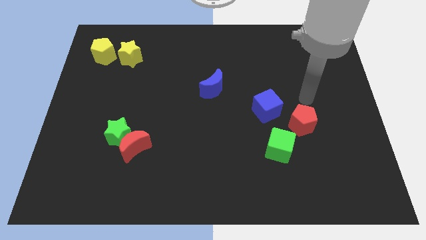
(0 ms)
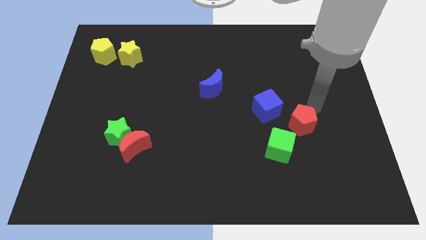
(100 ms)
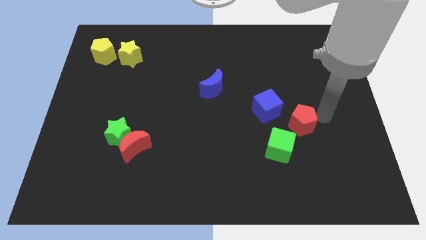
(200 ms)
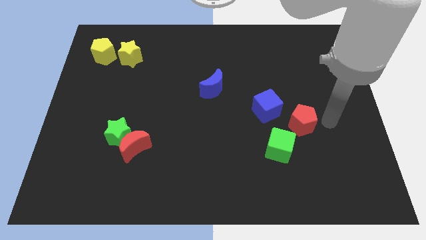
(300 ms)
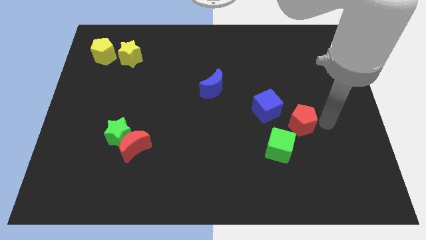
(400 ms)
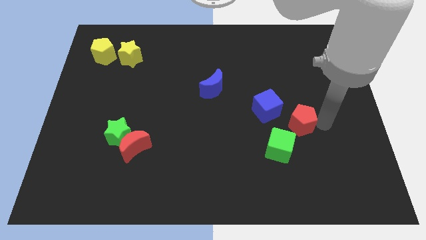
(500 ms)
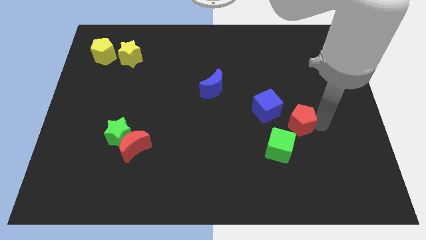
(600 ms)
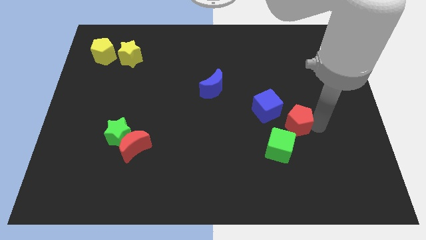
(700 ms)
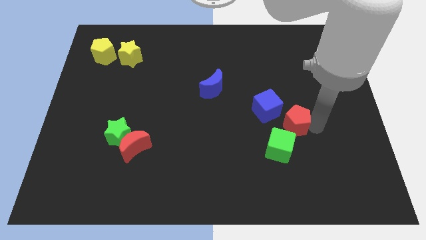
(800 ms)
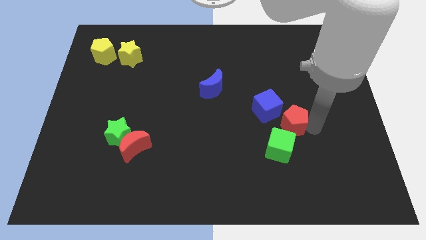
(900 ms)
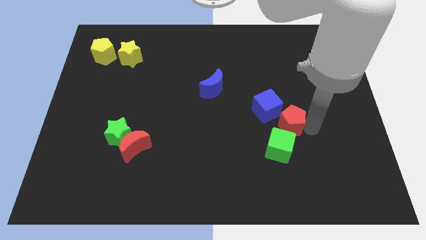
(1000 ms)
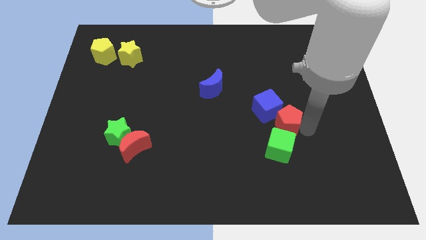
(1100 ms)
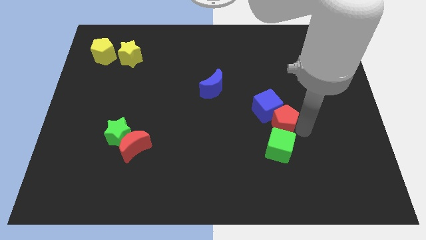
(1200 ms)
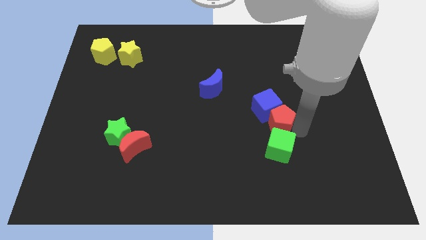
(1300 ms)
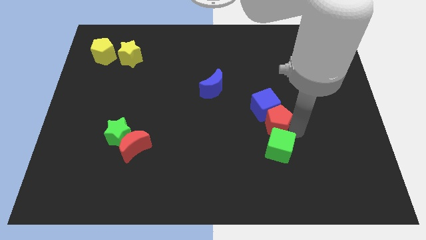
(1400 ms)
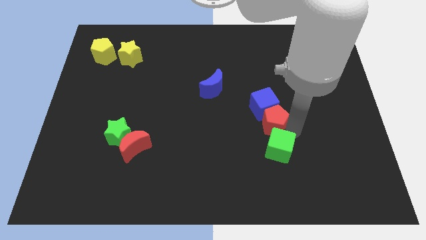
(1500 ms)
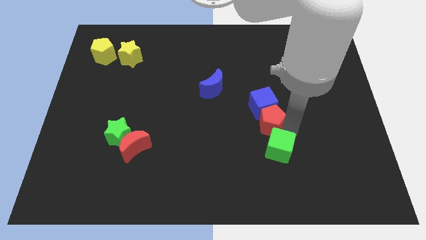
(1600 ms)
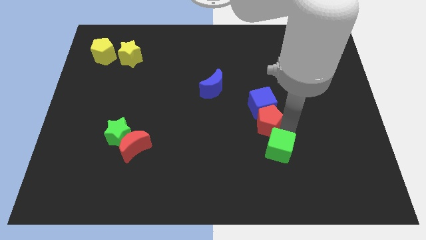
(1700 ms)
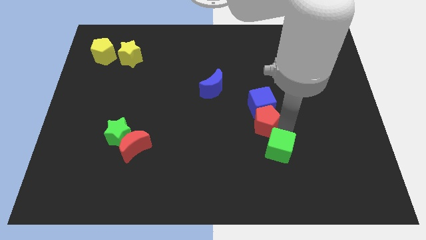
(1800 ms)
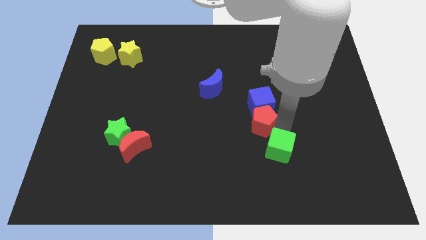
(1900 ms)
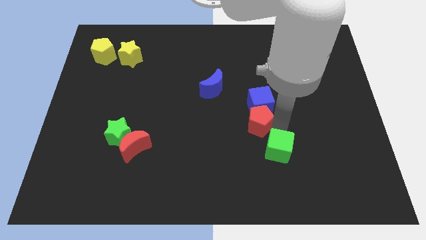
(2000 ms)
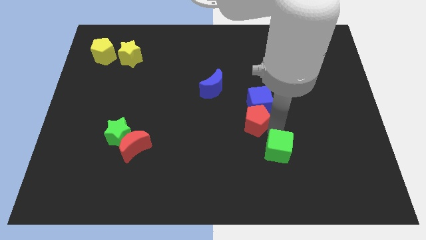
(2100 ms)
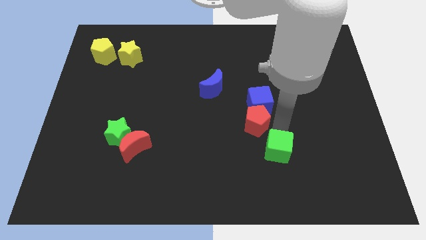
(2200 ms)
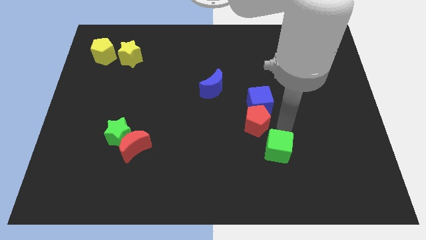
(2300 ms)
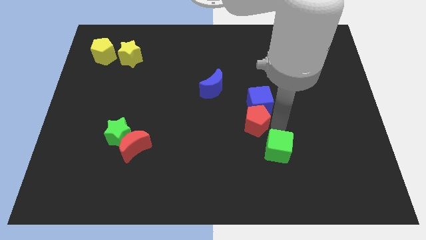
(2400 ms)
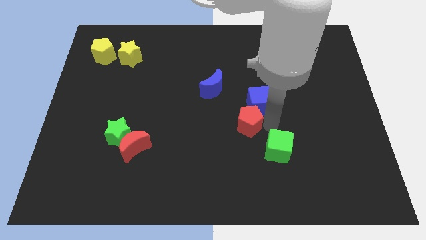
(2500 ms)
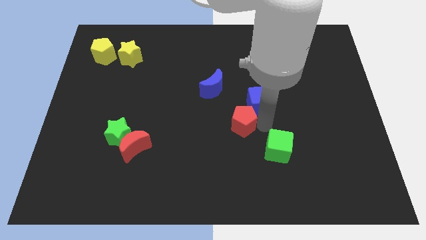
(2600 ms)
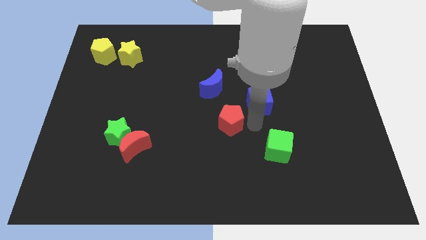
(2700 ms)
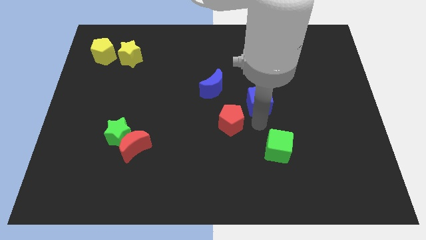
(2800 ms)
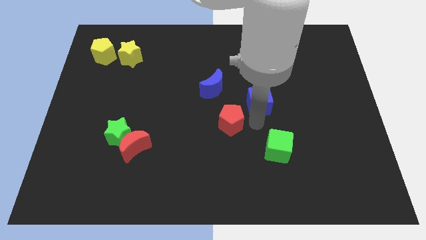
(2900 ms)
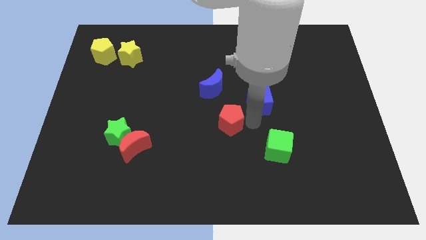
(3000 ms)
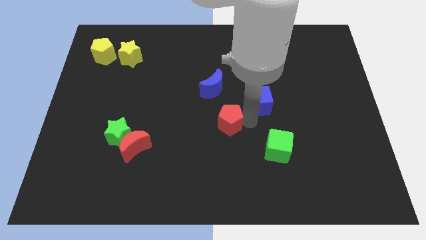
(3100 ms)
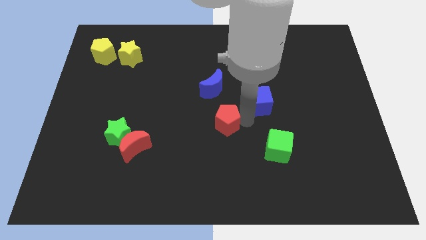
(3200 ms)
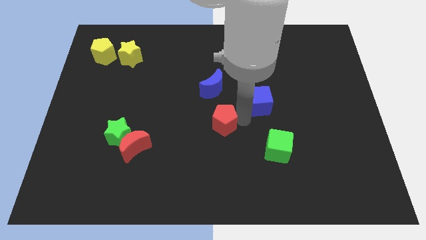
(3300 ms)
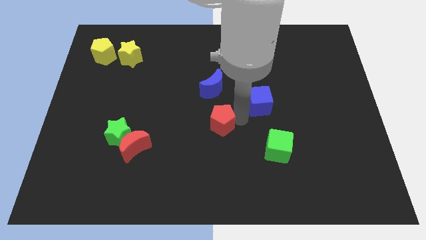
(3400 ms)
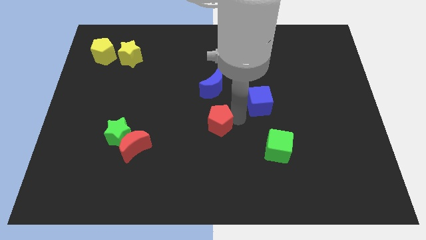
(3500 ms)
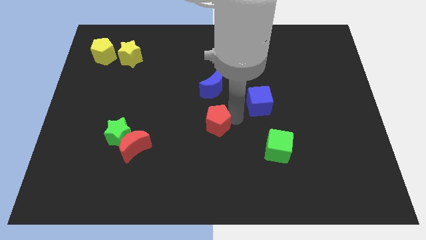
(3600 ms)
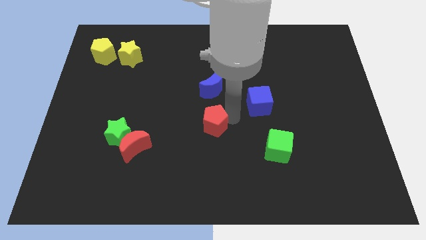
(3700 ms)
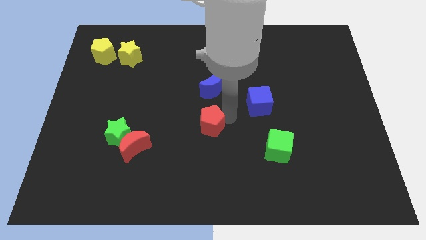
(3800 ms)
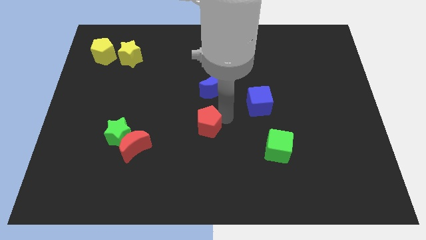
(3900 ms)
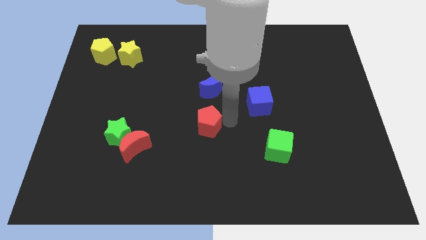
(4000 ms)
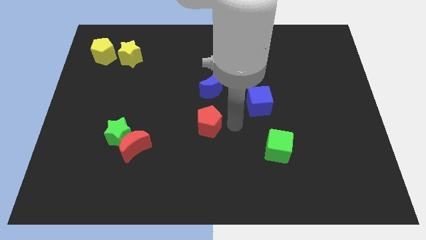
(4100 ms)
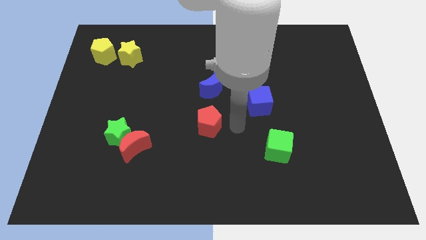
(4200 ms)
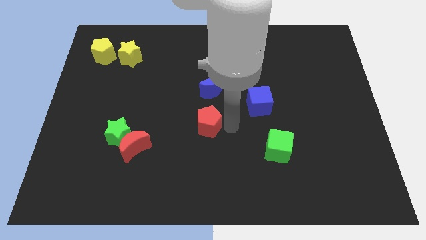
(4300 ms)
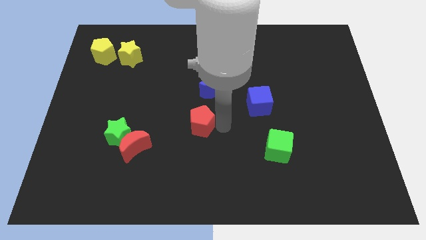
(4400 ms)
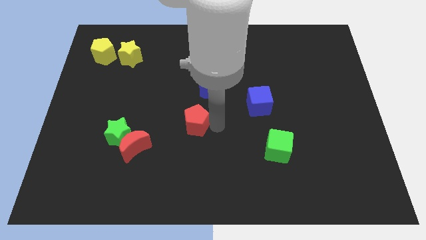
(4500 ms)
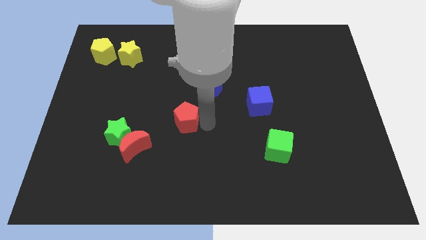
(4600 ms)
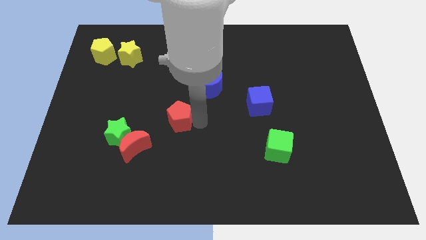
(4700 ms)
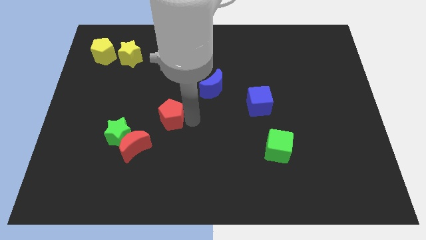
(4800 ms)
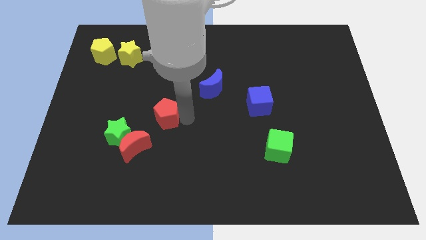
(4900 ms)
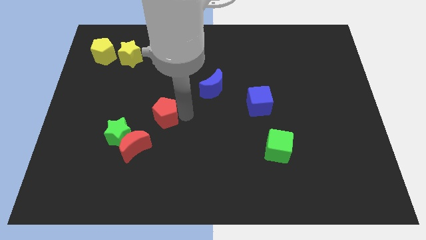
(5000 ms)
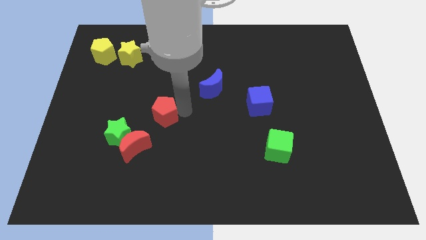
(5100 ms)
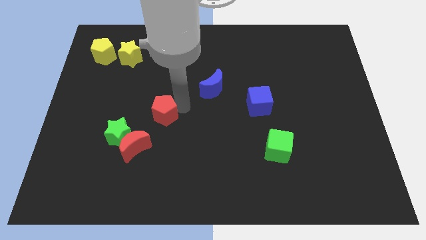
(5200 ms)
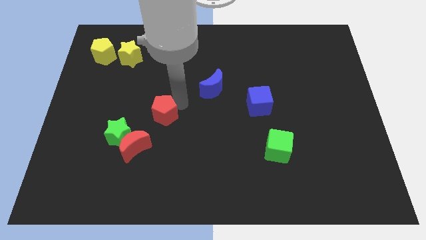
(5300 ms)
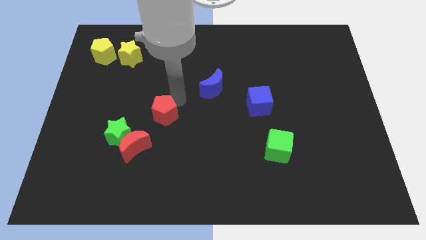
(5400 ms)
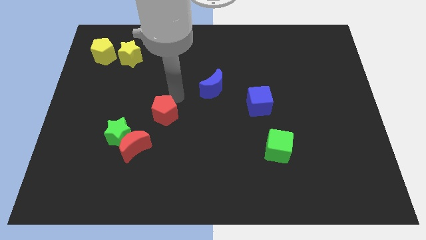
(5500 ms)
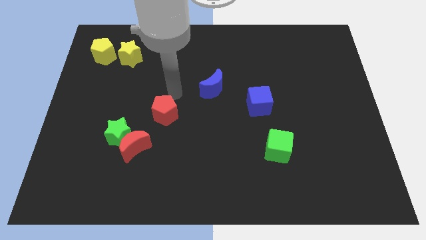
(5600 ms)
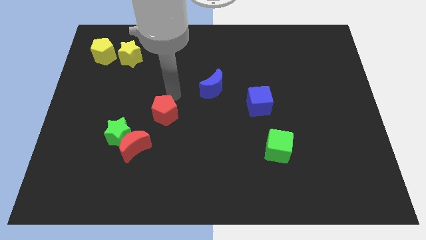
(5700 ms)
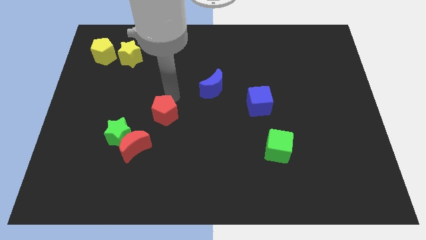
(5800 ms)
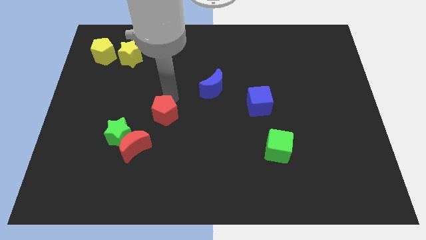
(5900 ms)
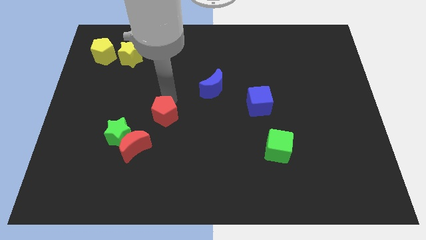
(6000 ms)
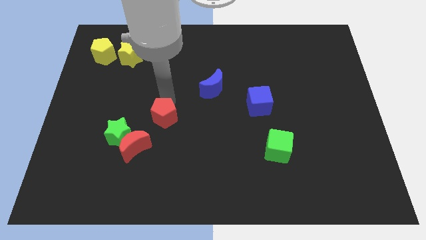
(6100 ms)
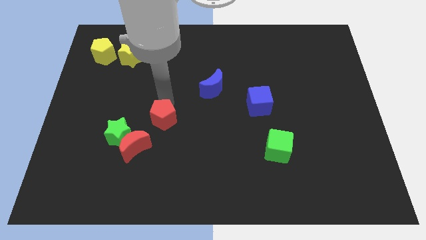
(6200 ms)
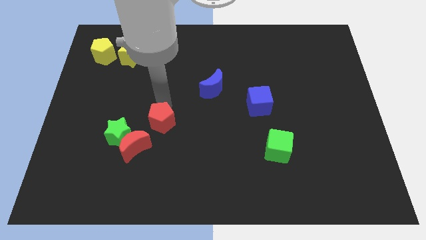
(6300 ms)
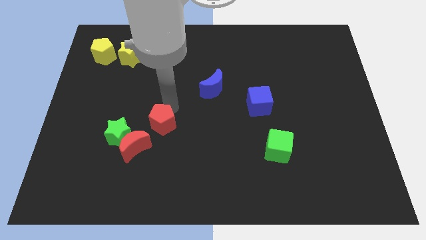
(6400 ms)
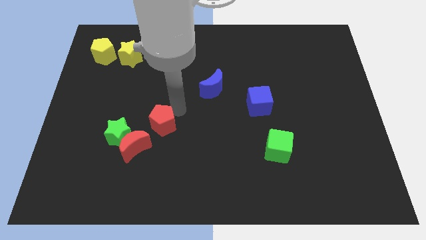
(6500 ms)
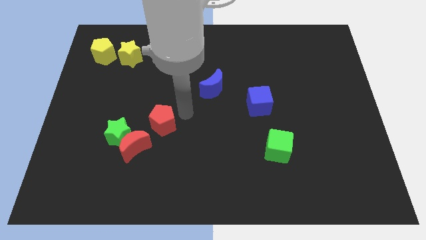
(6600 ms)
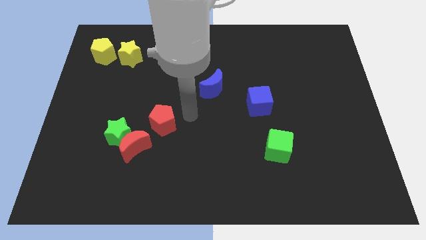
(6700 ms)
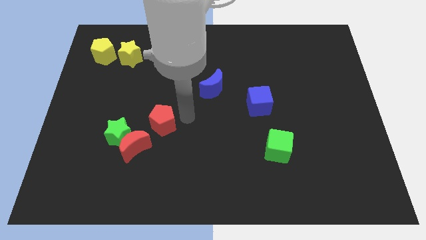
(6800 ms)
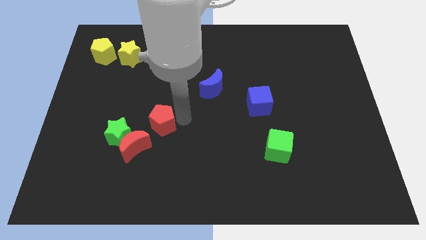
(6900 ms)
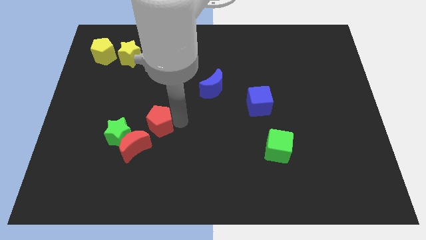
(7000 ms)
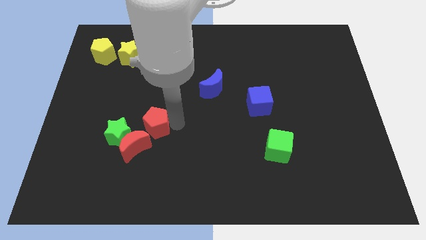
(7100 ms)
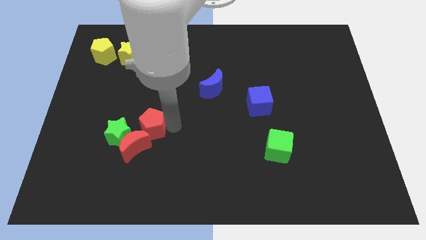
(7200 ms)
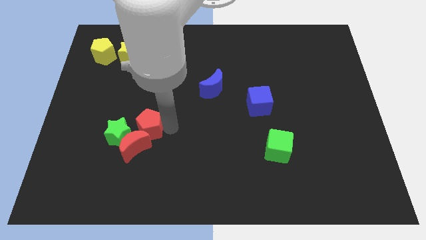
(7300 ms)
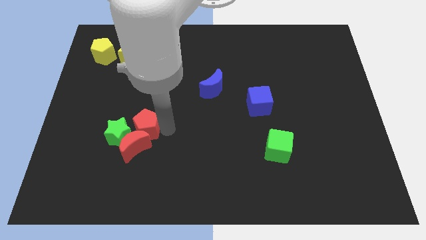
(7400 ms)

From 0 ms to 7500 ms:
slide the red pentagon next to the green star
